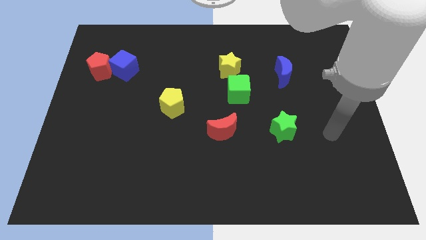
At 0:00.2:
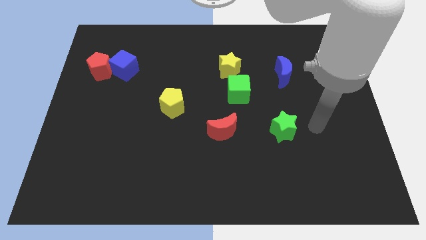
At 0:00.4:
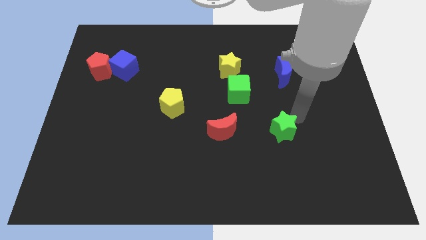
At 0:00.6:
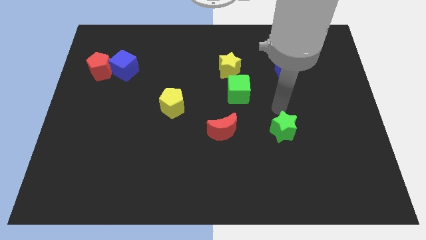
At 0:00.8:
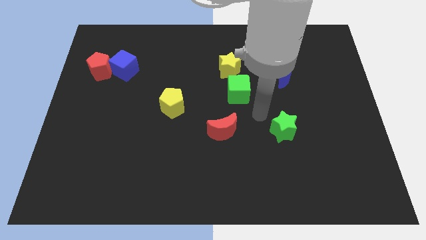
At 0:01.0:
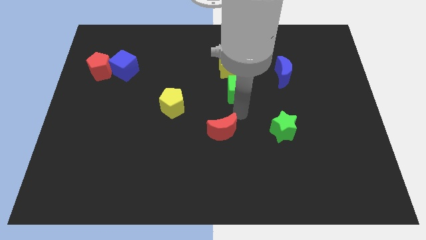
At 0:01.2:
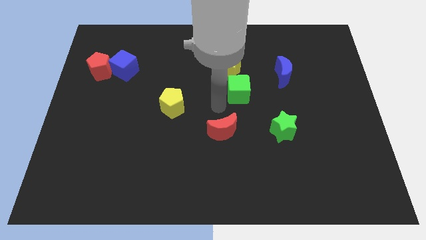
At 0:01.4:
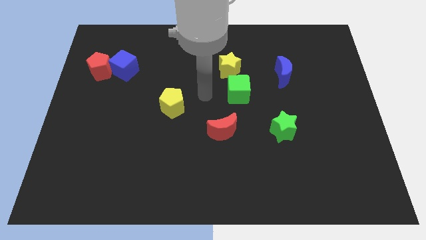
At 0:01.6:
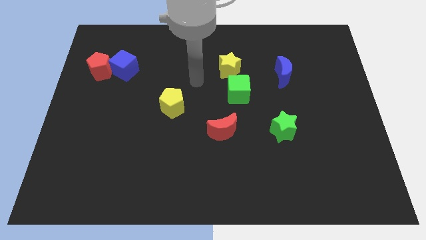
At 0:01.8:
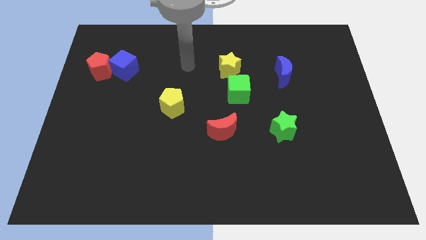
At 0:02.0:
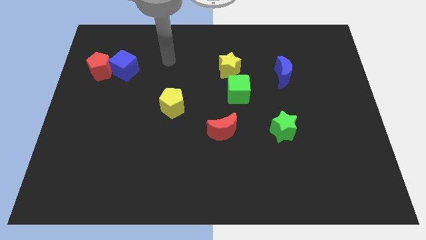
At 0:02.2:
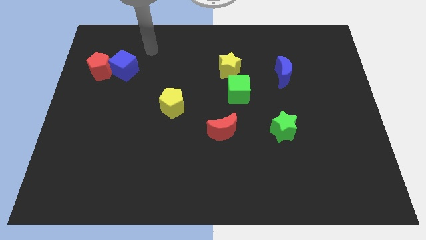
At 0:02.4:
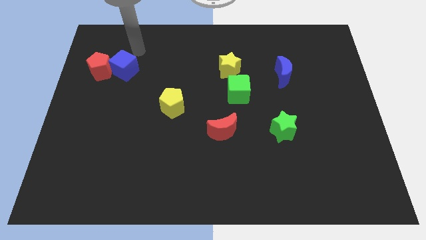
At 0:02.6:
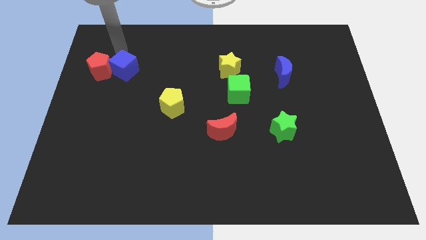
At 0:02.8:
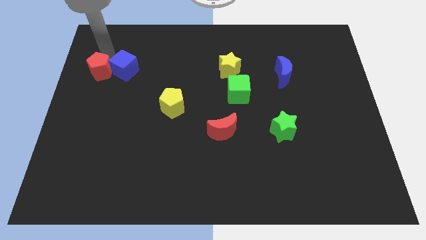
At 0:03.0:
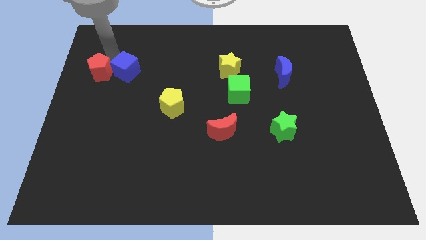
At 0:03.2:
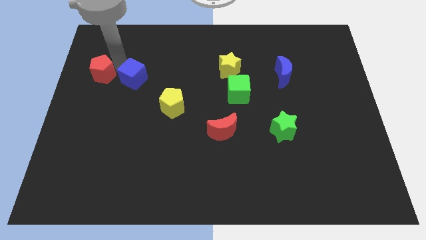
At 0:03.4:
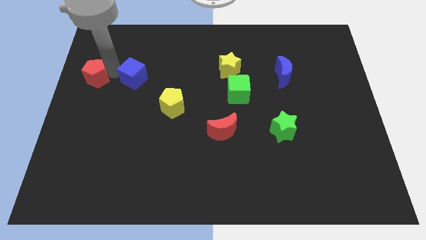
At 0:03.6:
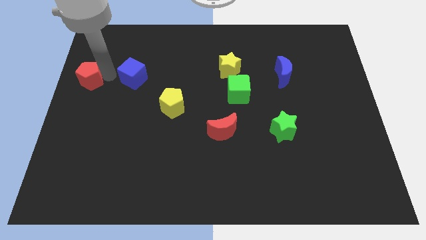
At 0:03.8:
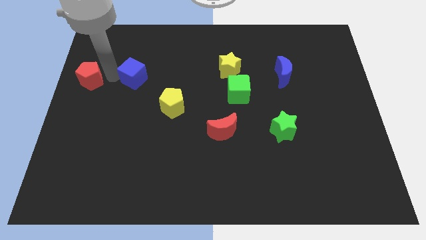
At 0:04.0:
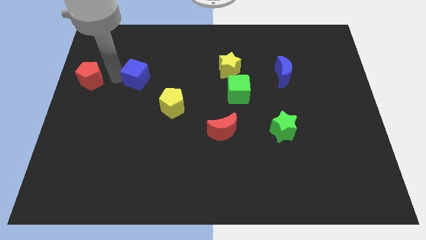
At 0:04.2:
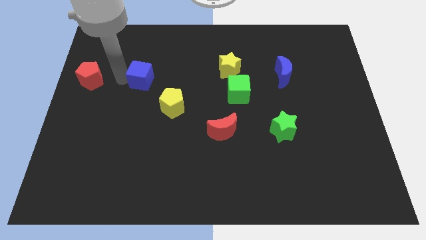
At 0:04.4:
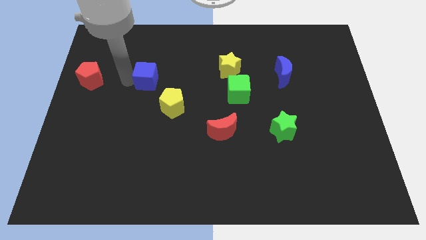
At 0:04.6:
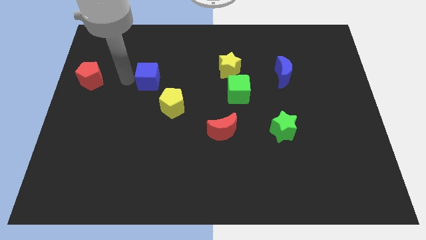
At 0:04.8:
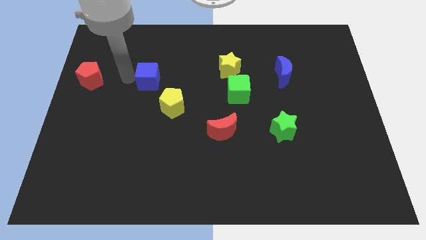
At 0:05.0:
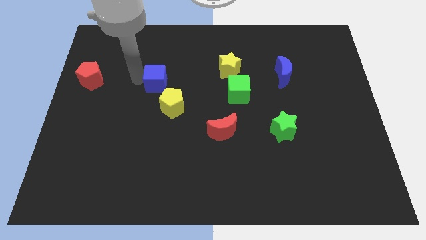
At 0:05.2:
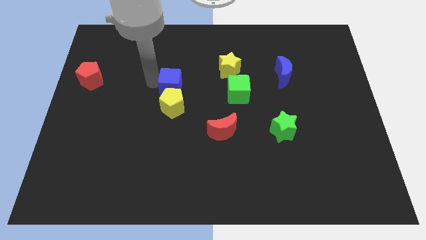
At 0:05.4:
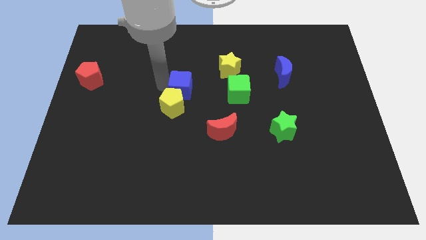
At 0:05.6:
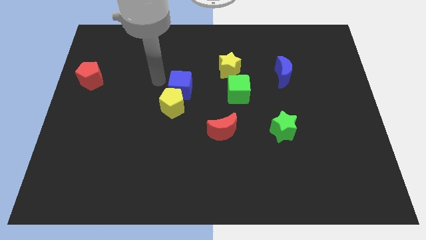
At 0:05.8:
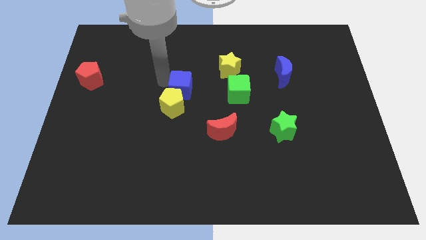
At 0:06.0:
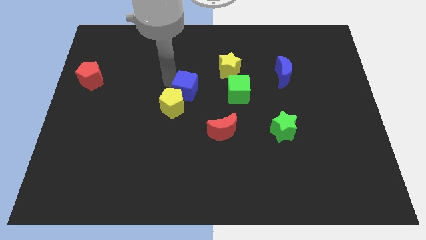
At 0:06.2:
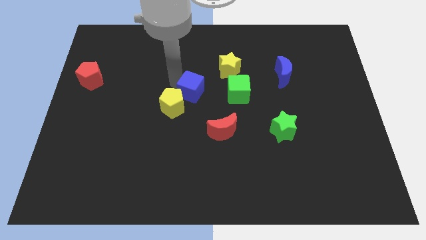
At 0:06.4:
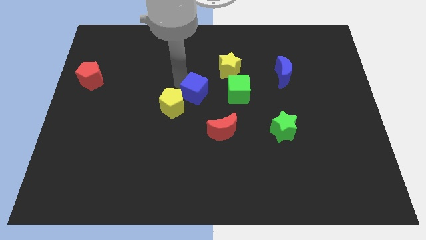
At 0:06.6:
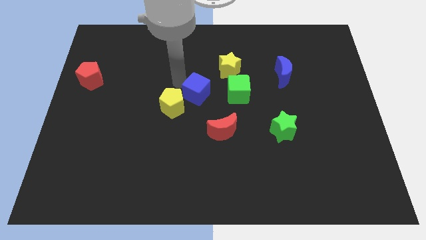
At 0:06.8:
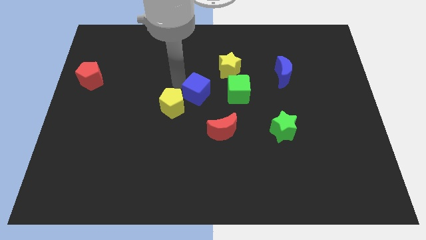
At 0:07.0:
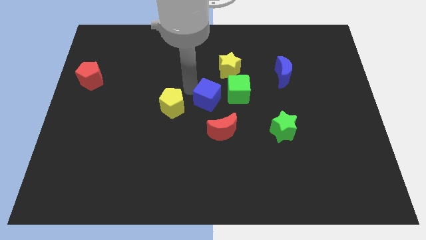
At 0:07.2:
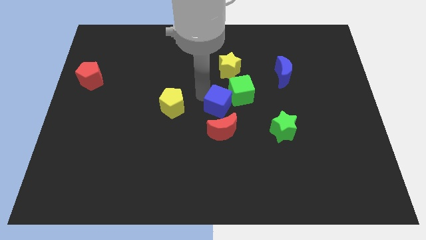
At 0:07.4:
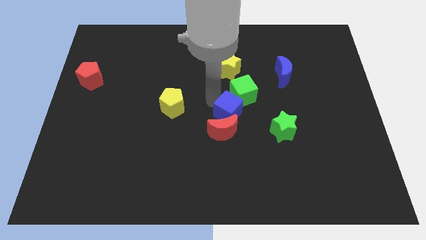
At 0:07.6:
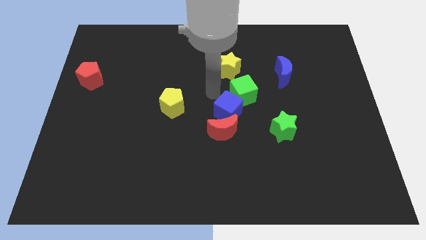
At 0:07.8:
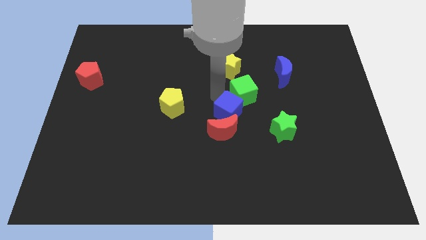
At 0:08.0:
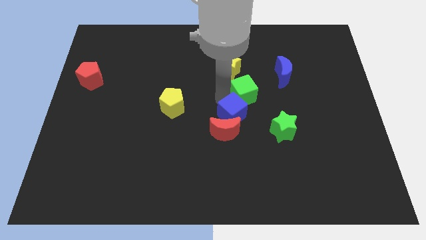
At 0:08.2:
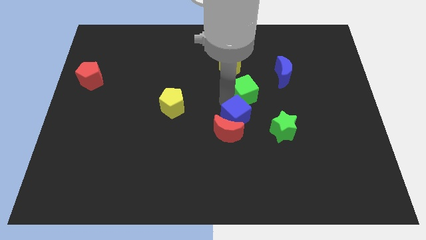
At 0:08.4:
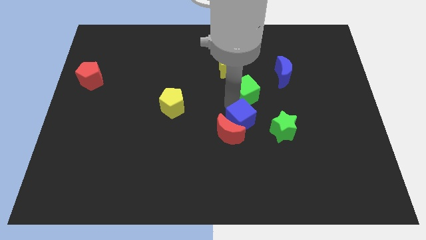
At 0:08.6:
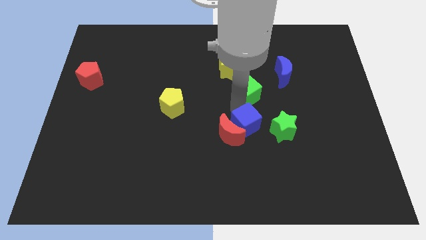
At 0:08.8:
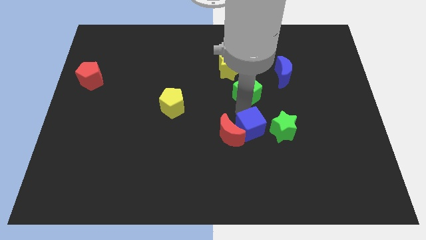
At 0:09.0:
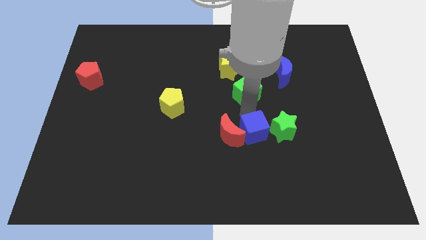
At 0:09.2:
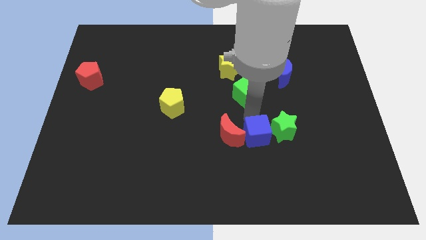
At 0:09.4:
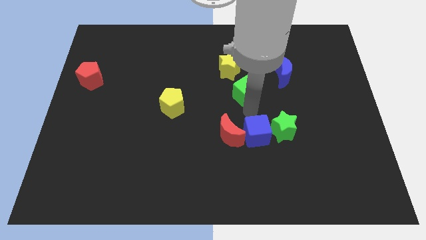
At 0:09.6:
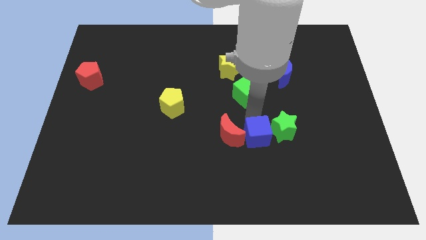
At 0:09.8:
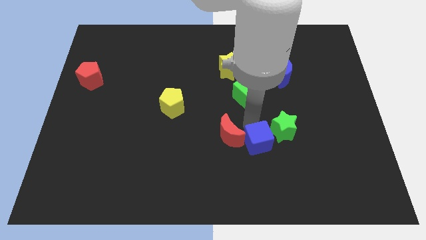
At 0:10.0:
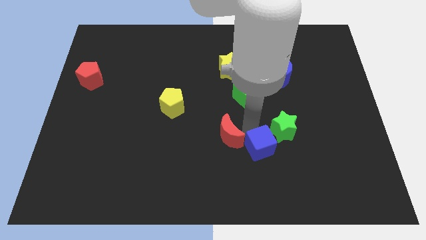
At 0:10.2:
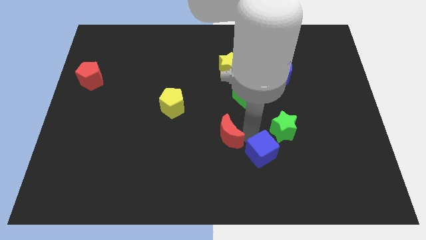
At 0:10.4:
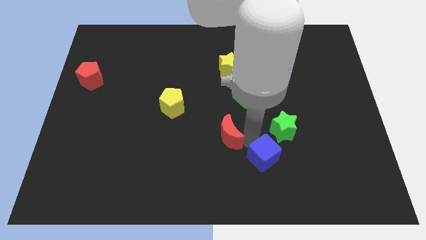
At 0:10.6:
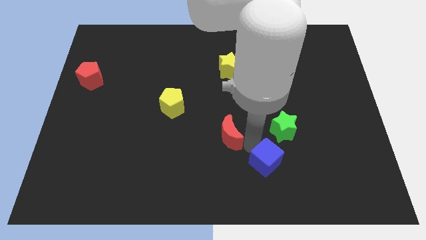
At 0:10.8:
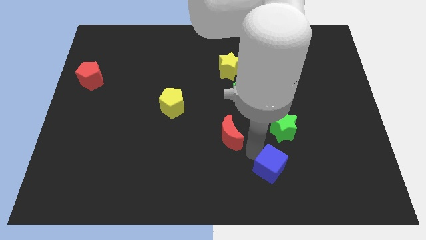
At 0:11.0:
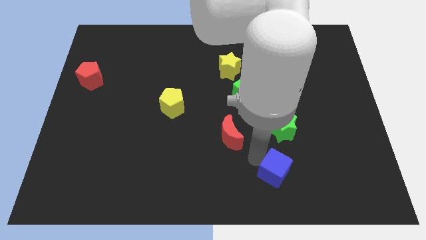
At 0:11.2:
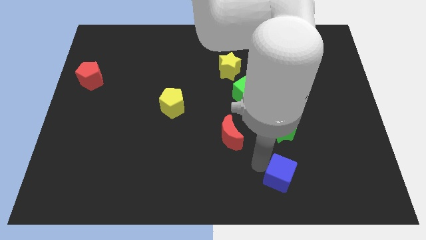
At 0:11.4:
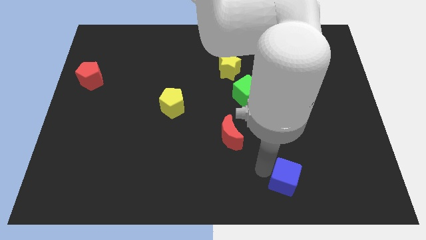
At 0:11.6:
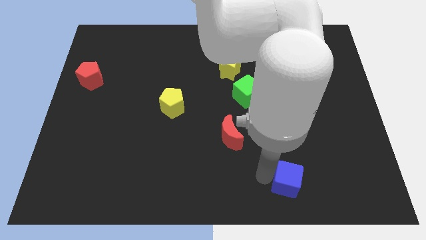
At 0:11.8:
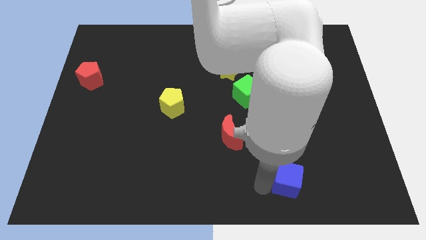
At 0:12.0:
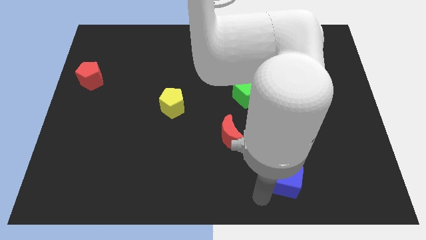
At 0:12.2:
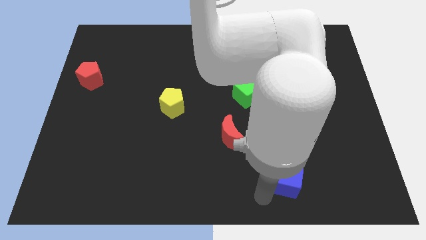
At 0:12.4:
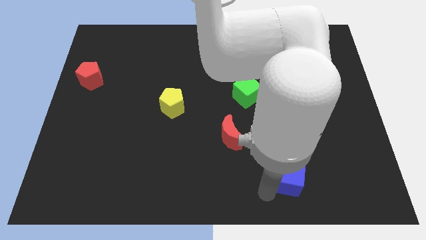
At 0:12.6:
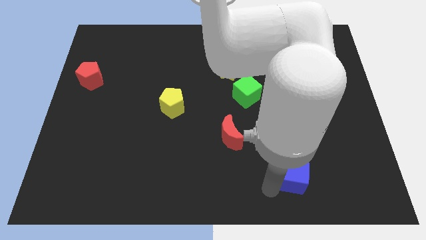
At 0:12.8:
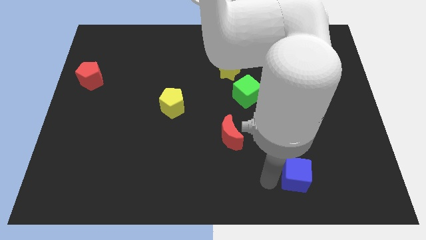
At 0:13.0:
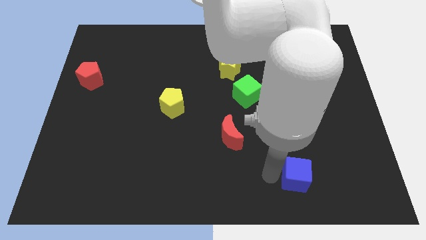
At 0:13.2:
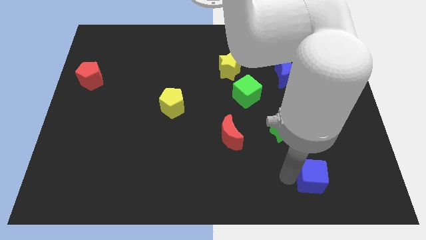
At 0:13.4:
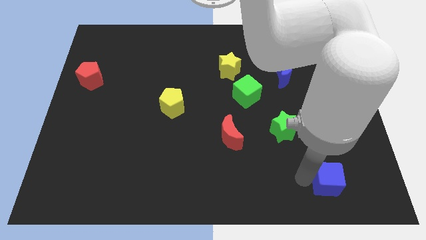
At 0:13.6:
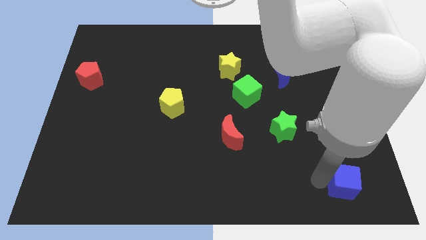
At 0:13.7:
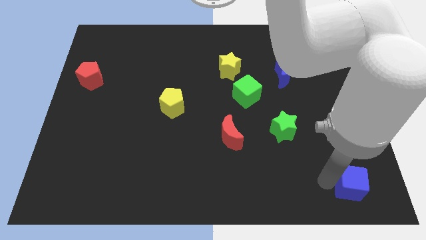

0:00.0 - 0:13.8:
slide the blue cube to the lower right corner
